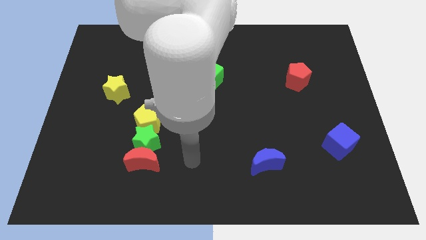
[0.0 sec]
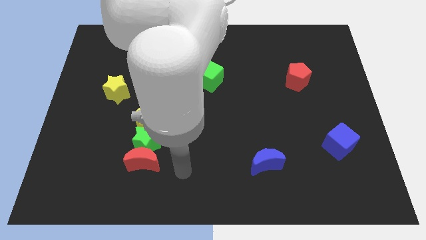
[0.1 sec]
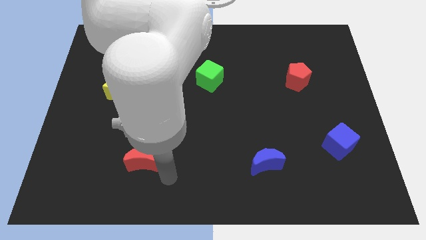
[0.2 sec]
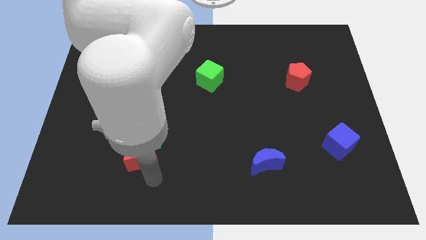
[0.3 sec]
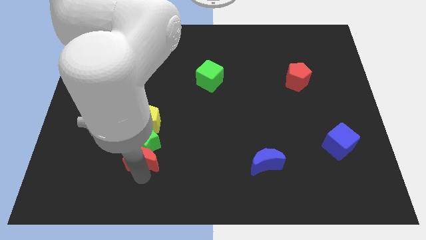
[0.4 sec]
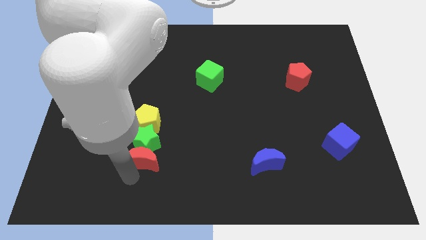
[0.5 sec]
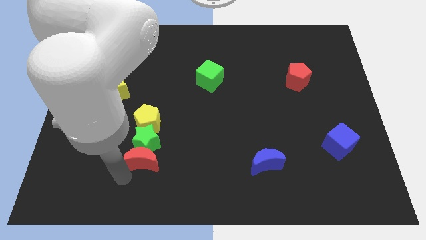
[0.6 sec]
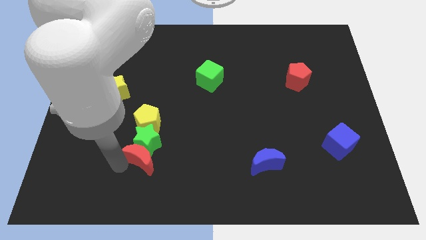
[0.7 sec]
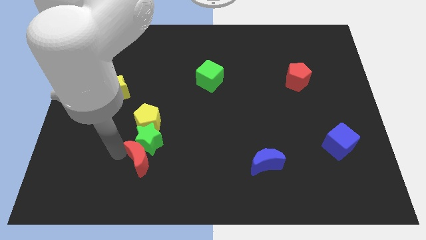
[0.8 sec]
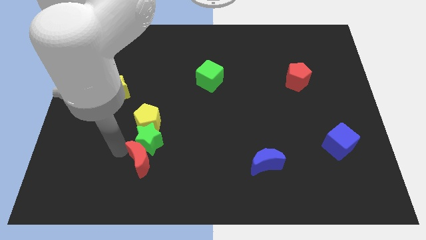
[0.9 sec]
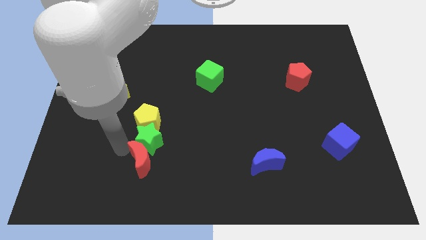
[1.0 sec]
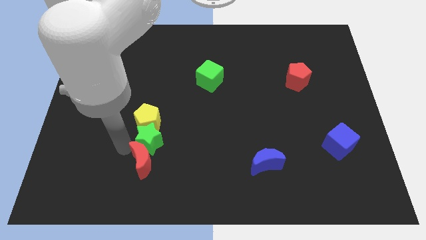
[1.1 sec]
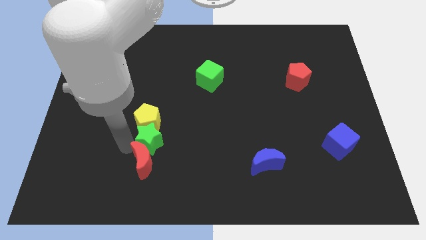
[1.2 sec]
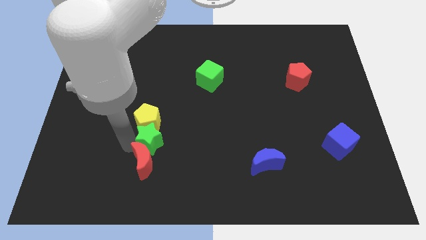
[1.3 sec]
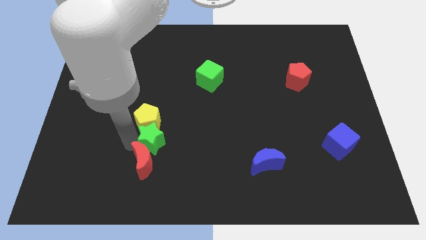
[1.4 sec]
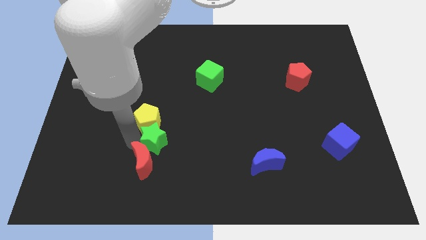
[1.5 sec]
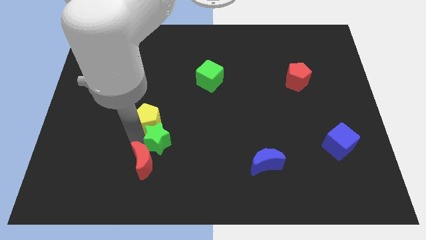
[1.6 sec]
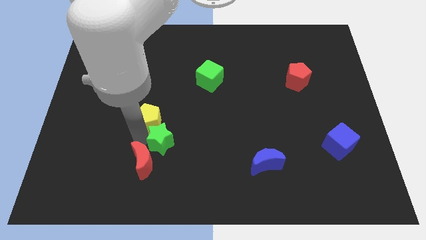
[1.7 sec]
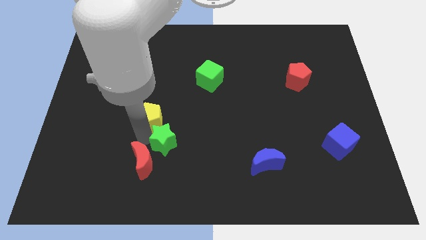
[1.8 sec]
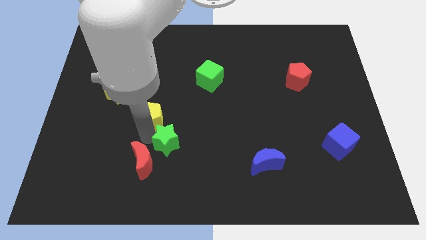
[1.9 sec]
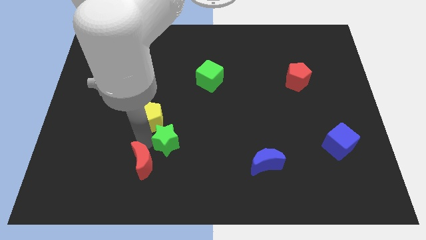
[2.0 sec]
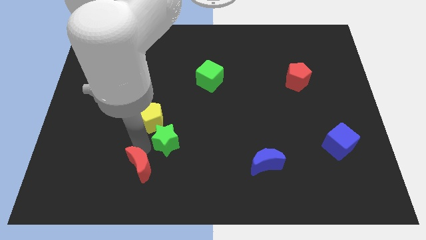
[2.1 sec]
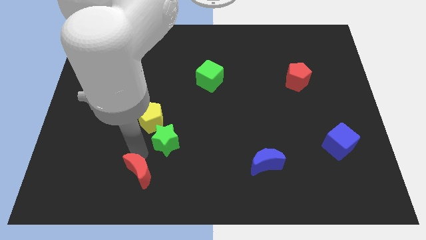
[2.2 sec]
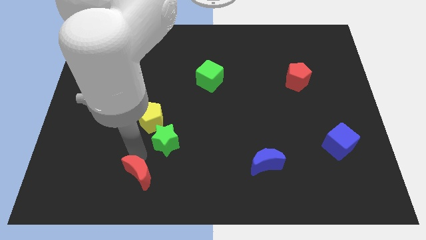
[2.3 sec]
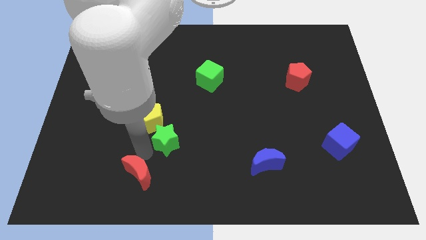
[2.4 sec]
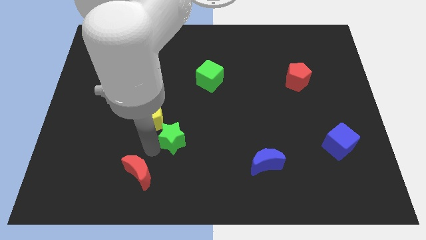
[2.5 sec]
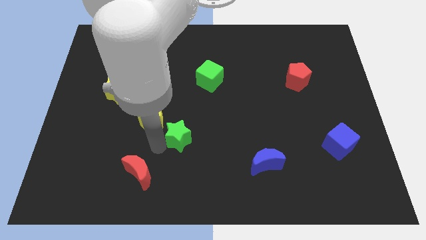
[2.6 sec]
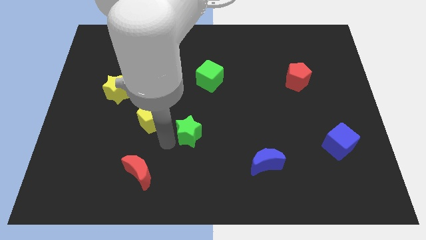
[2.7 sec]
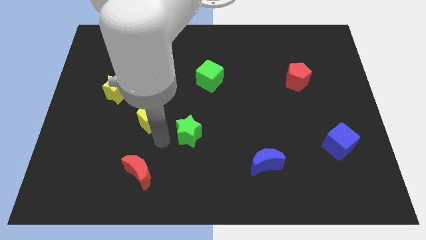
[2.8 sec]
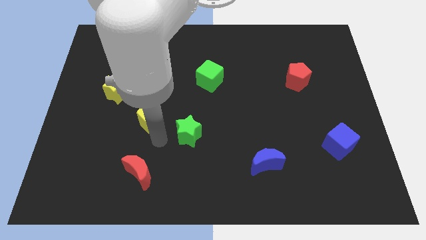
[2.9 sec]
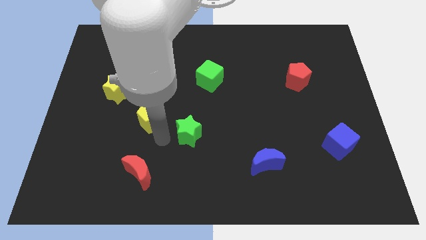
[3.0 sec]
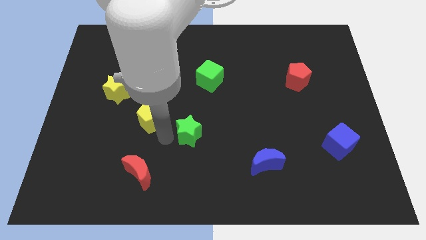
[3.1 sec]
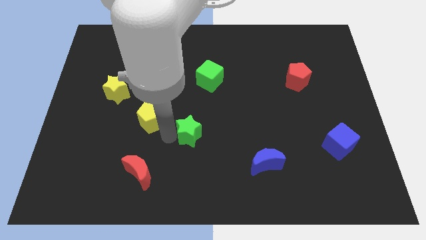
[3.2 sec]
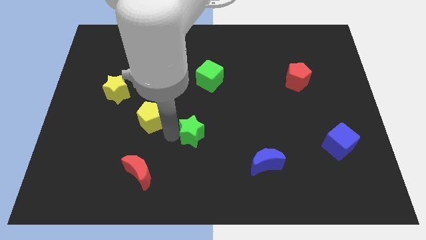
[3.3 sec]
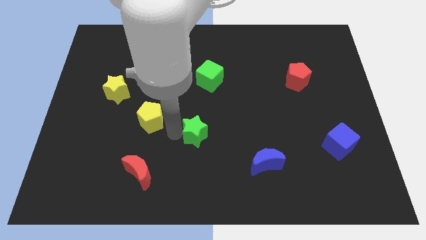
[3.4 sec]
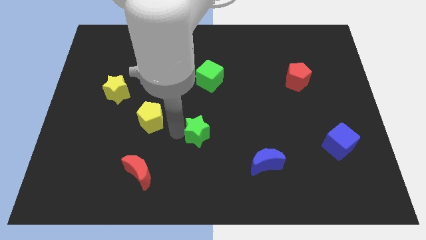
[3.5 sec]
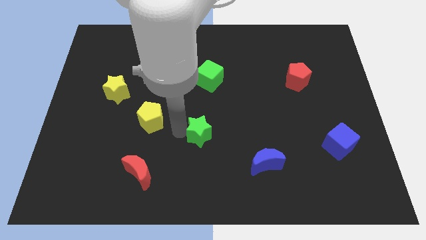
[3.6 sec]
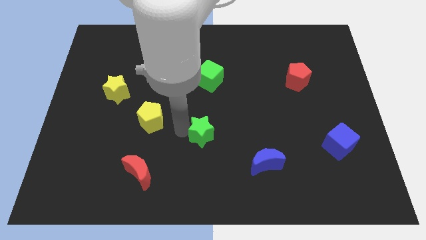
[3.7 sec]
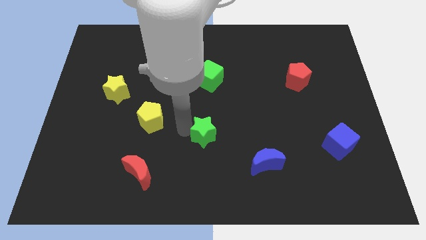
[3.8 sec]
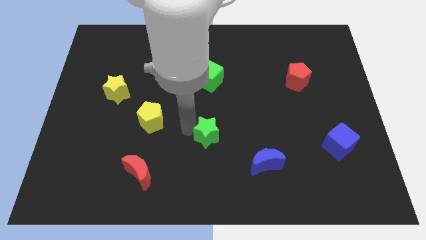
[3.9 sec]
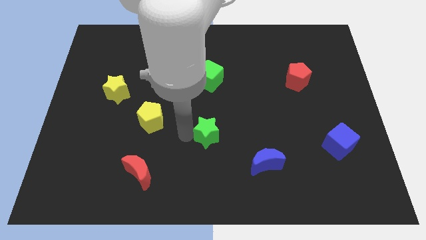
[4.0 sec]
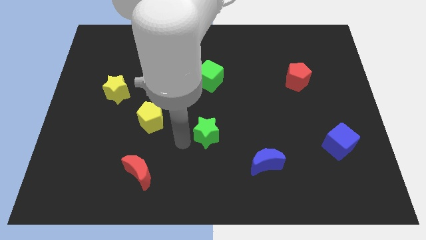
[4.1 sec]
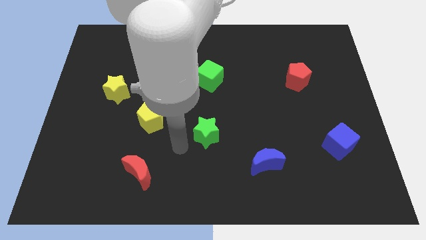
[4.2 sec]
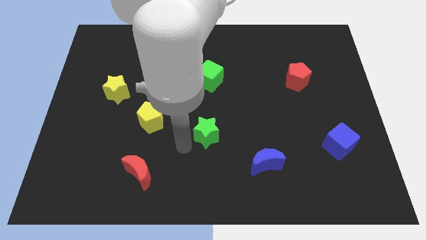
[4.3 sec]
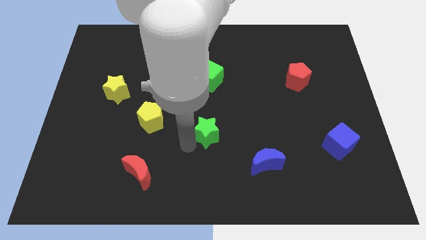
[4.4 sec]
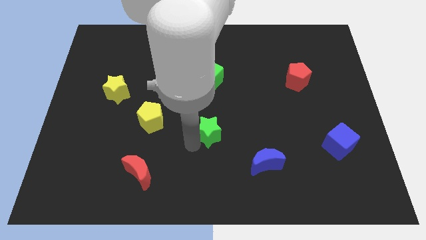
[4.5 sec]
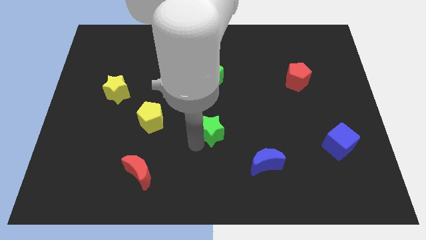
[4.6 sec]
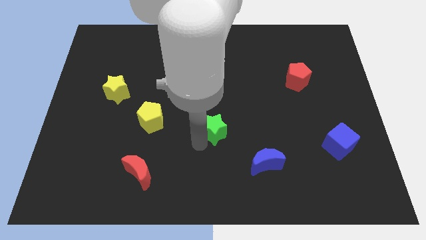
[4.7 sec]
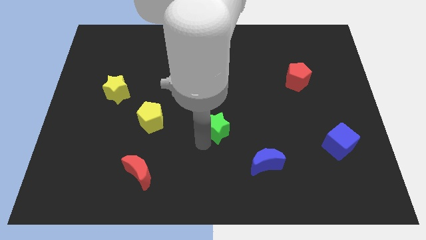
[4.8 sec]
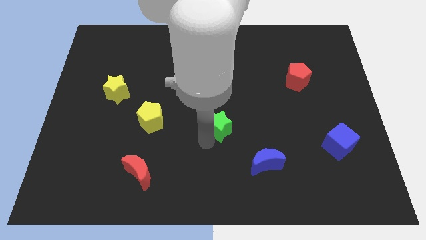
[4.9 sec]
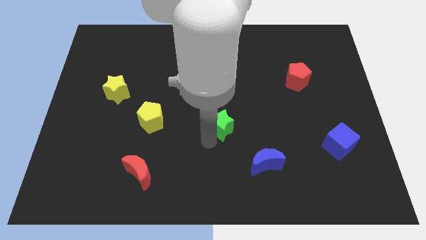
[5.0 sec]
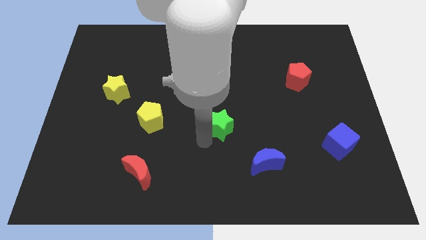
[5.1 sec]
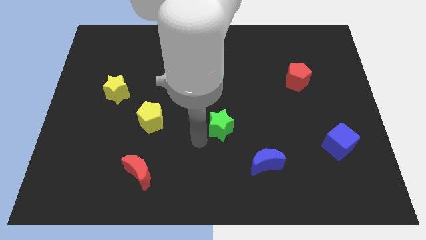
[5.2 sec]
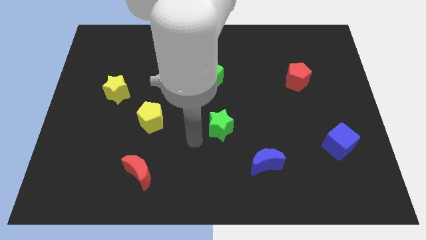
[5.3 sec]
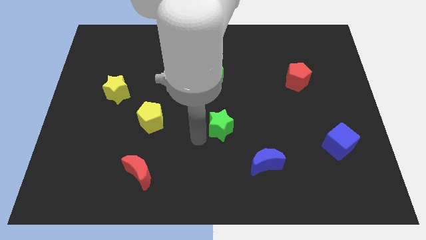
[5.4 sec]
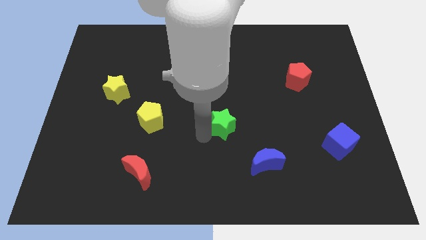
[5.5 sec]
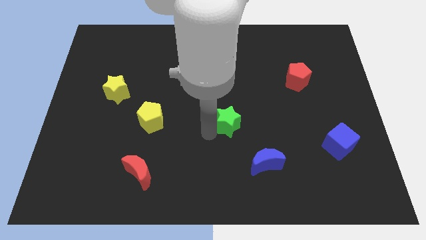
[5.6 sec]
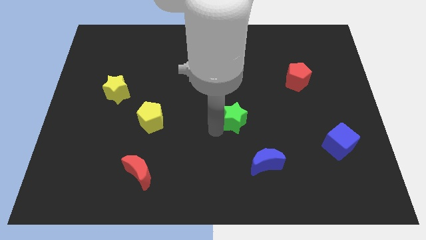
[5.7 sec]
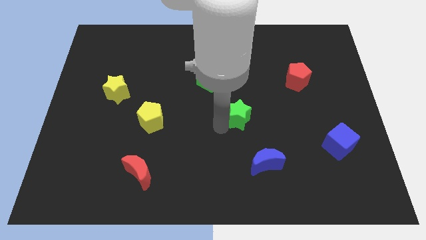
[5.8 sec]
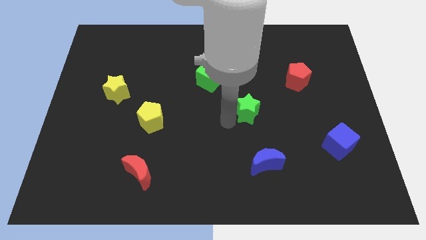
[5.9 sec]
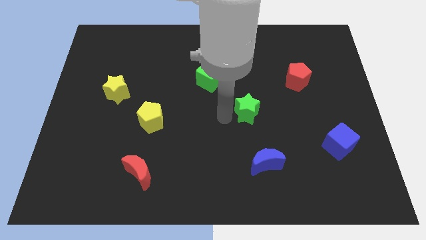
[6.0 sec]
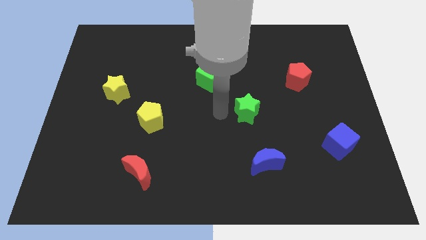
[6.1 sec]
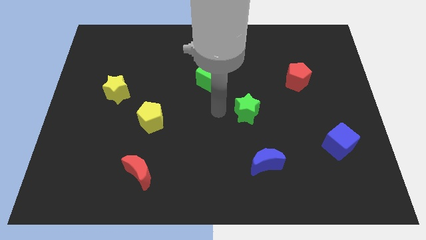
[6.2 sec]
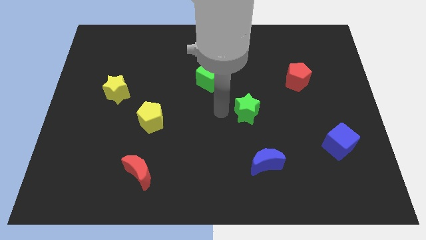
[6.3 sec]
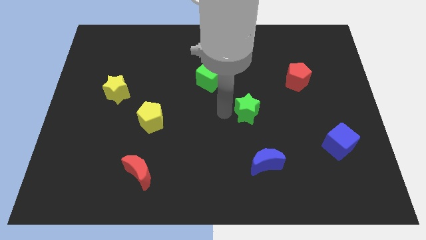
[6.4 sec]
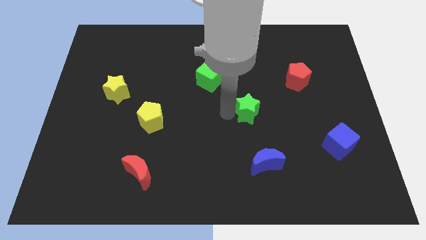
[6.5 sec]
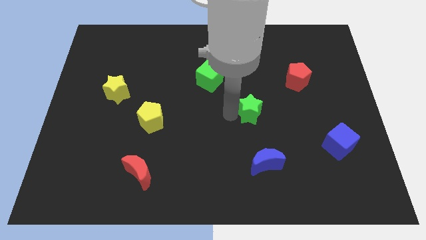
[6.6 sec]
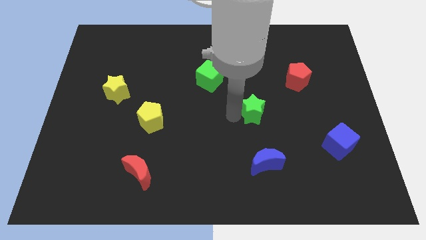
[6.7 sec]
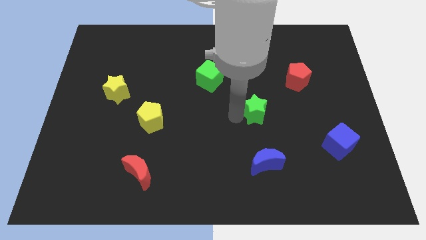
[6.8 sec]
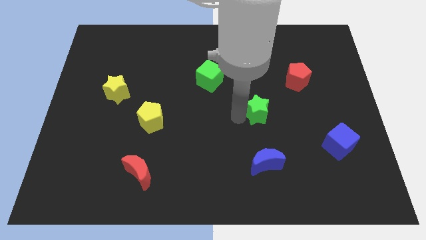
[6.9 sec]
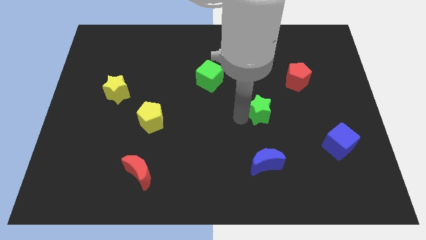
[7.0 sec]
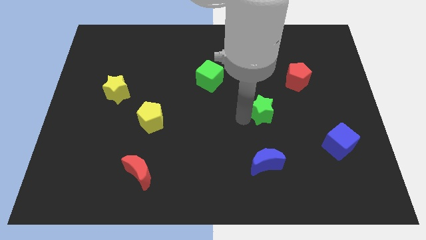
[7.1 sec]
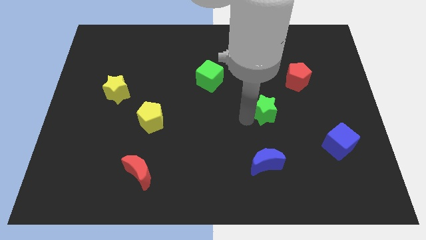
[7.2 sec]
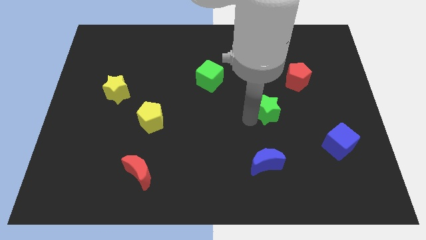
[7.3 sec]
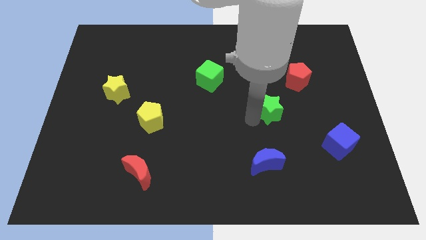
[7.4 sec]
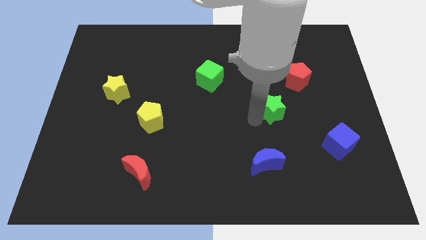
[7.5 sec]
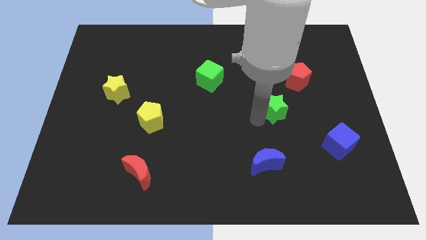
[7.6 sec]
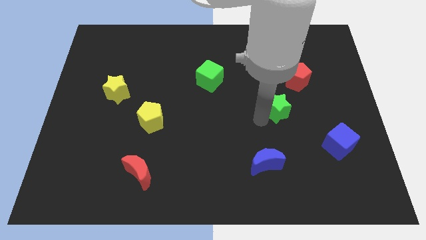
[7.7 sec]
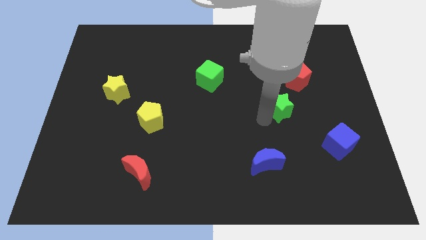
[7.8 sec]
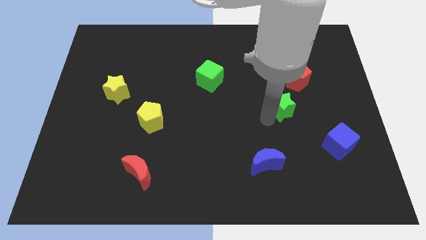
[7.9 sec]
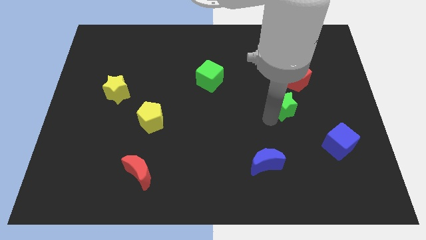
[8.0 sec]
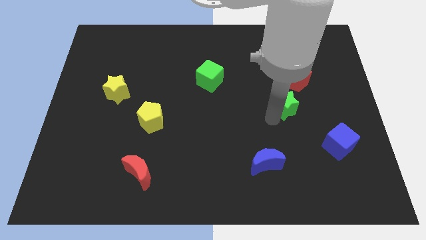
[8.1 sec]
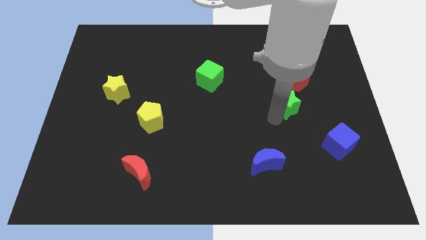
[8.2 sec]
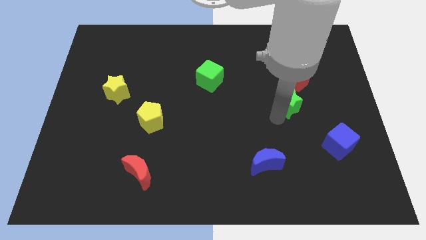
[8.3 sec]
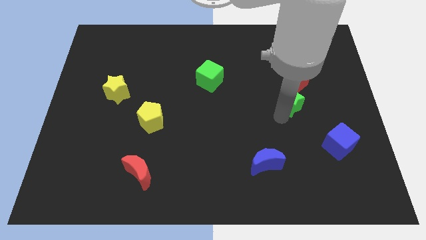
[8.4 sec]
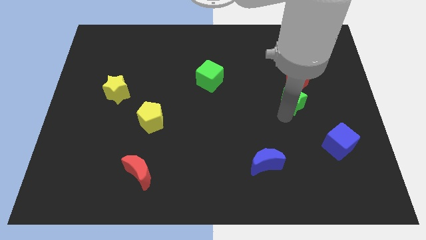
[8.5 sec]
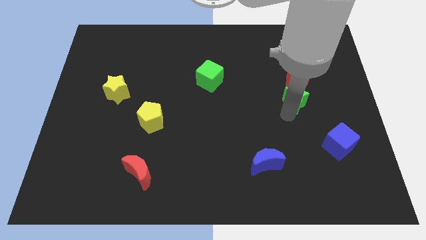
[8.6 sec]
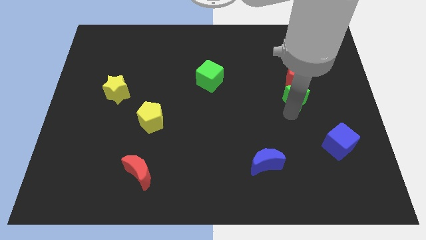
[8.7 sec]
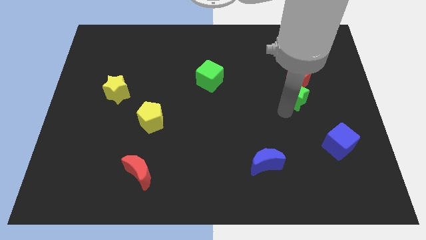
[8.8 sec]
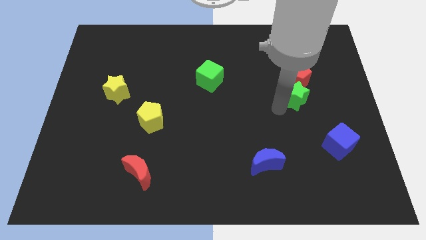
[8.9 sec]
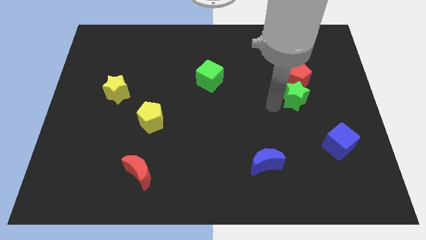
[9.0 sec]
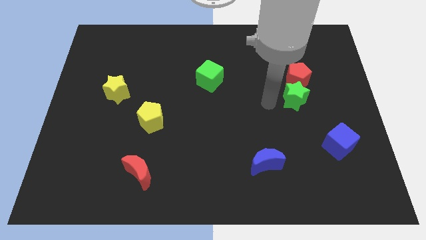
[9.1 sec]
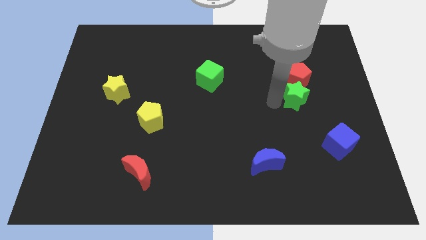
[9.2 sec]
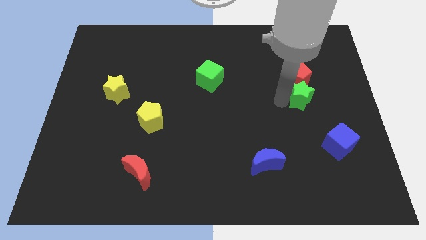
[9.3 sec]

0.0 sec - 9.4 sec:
move the green star to the bottom right of the red pentagon
